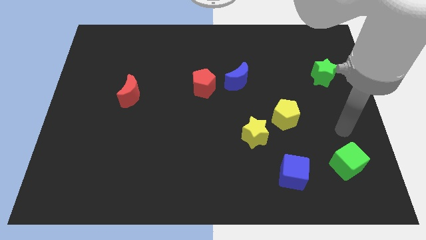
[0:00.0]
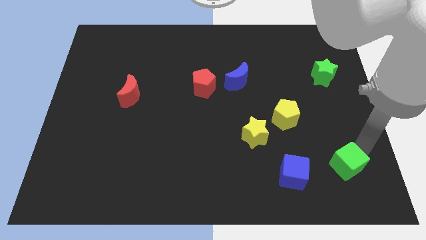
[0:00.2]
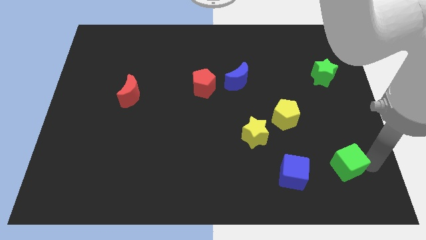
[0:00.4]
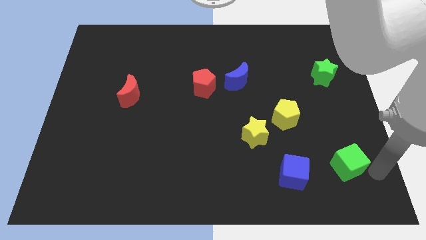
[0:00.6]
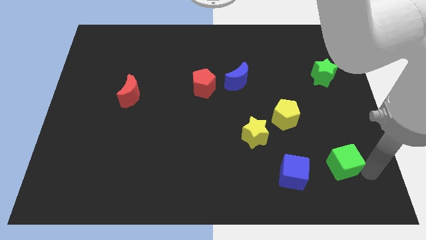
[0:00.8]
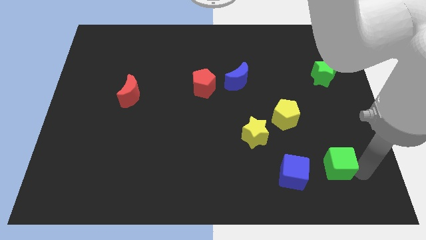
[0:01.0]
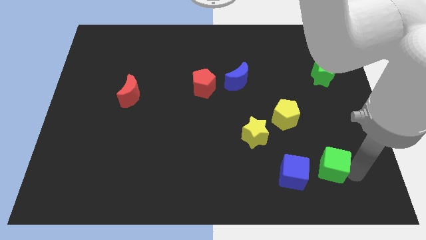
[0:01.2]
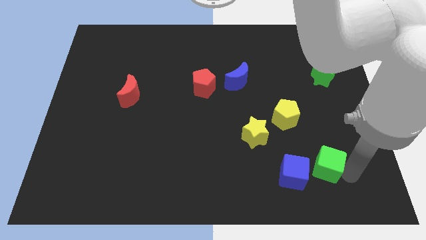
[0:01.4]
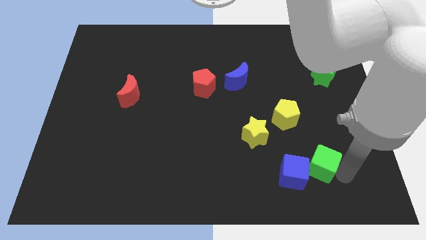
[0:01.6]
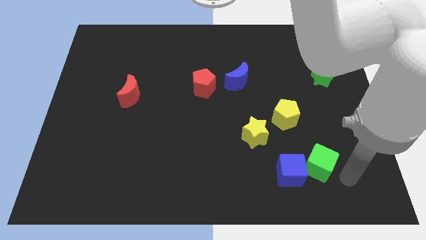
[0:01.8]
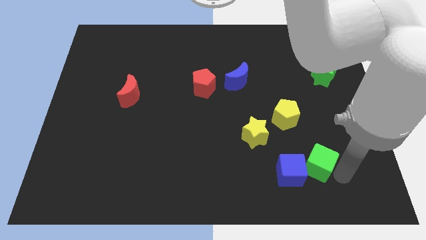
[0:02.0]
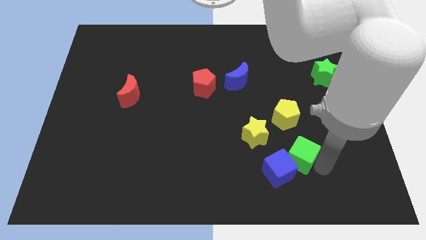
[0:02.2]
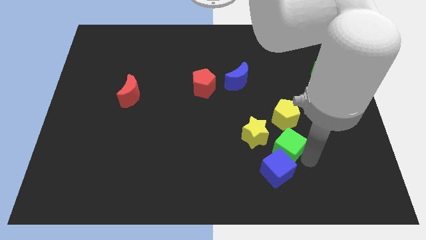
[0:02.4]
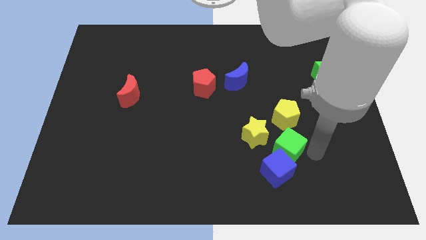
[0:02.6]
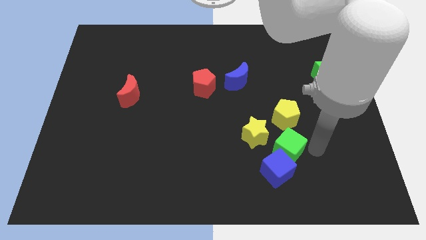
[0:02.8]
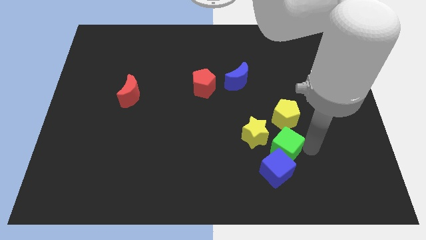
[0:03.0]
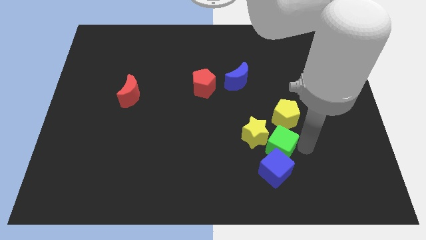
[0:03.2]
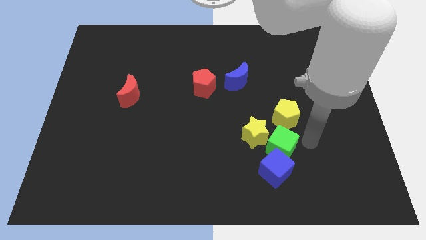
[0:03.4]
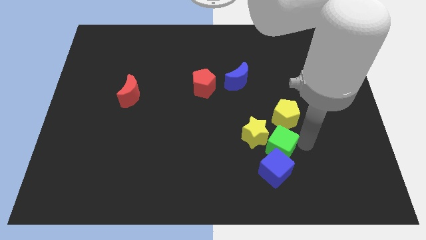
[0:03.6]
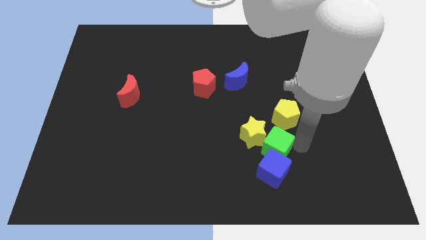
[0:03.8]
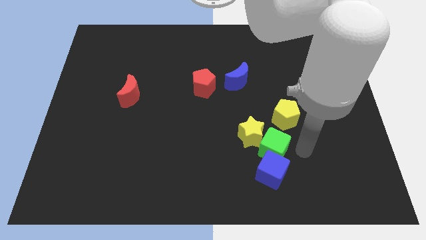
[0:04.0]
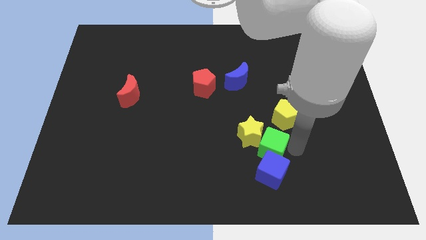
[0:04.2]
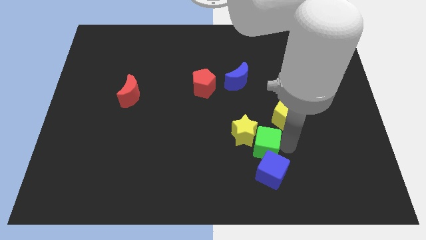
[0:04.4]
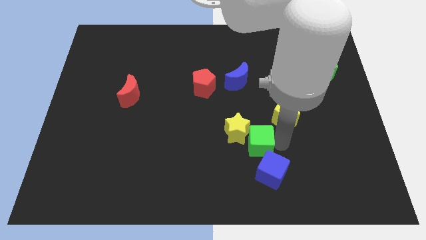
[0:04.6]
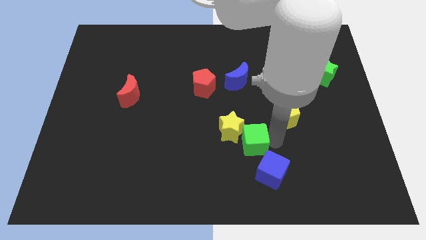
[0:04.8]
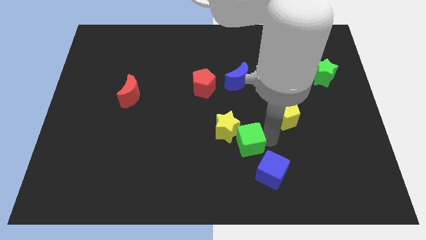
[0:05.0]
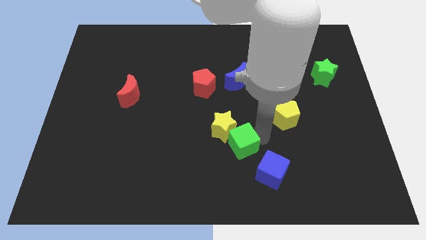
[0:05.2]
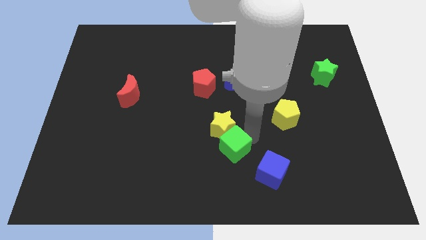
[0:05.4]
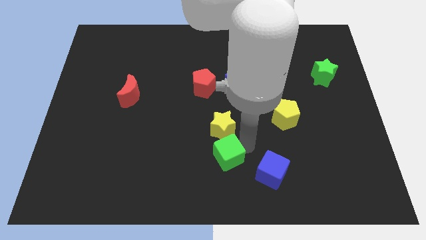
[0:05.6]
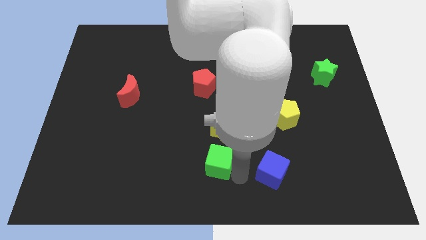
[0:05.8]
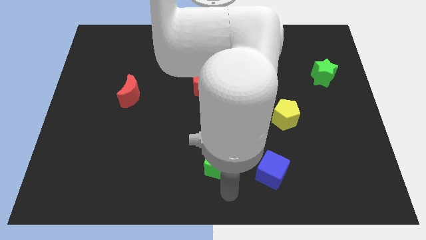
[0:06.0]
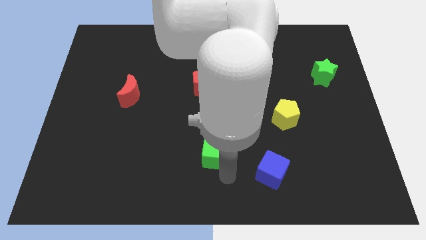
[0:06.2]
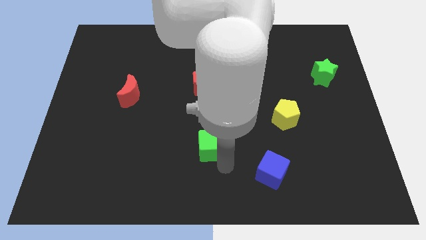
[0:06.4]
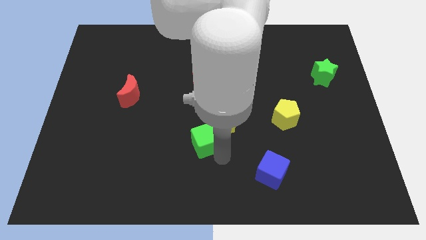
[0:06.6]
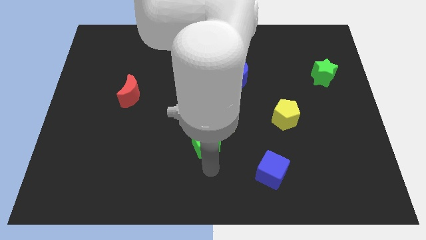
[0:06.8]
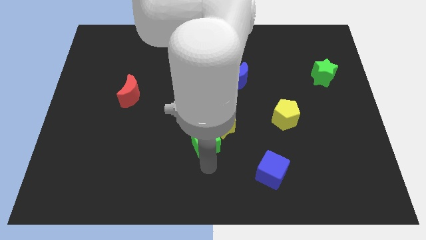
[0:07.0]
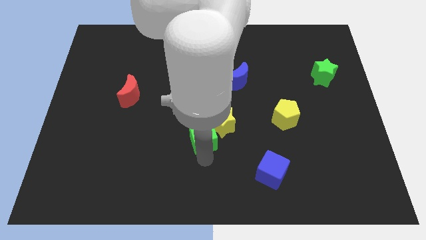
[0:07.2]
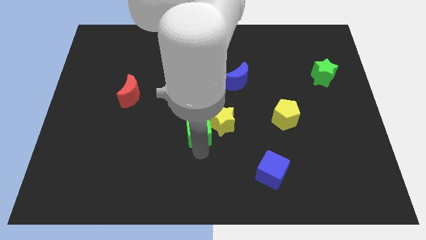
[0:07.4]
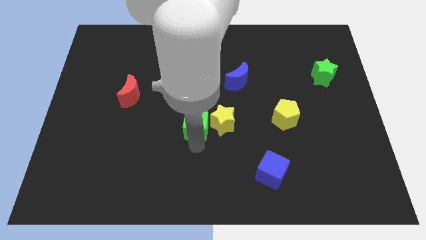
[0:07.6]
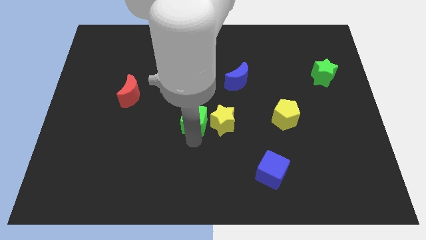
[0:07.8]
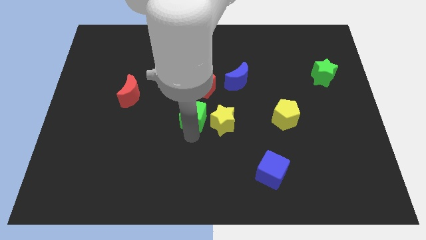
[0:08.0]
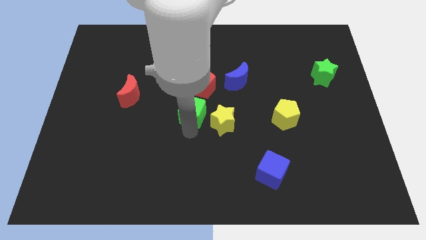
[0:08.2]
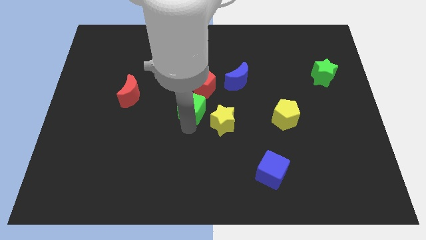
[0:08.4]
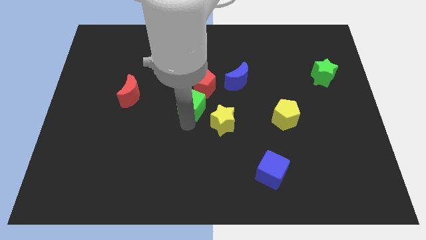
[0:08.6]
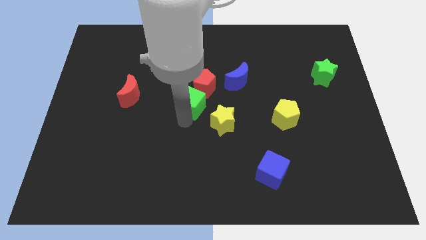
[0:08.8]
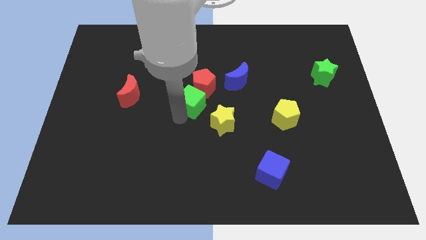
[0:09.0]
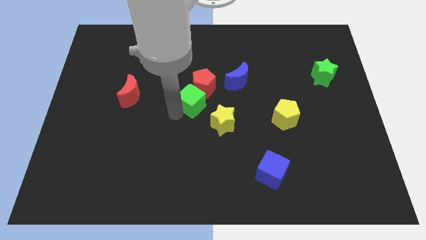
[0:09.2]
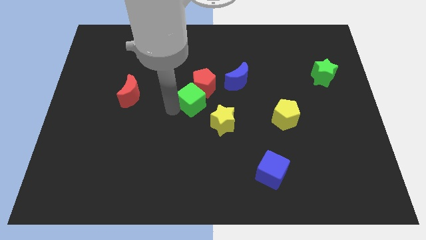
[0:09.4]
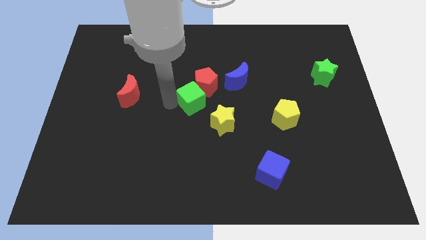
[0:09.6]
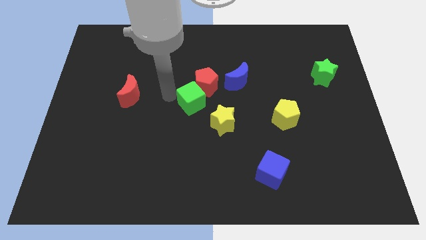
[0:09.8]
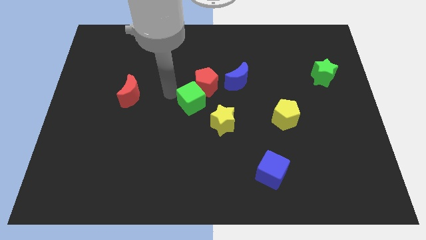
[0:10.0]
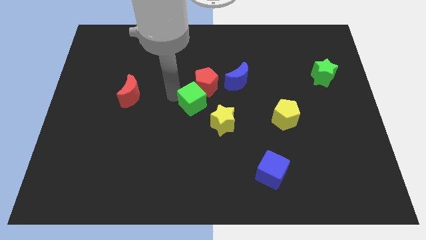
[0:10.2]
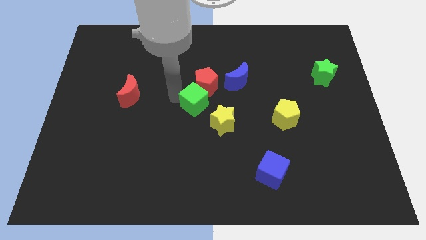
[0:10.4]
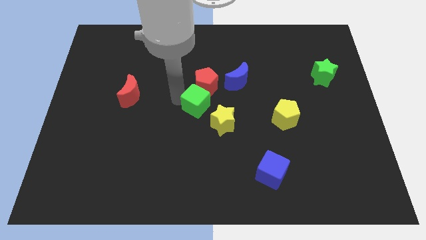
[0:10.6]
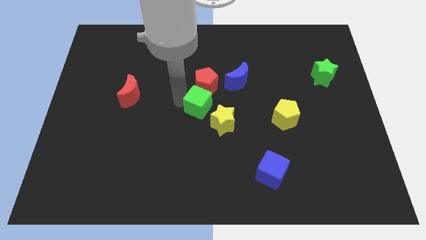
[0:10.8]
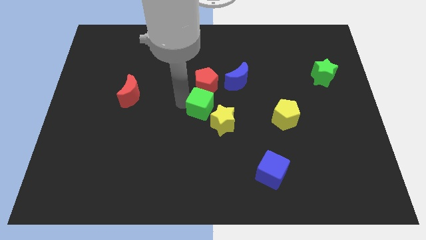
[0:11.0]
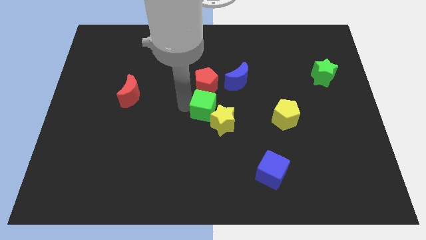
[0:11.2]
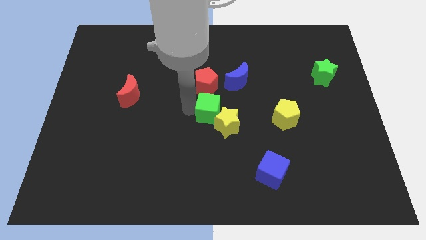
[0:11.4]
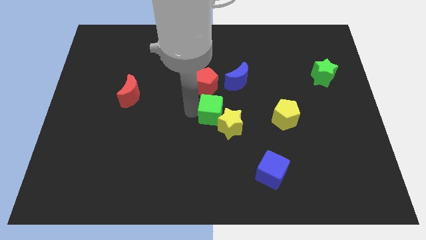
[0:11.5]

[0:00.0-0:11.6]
put the green cube diagonally up and to the left of the yellow star

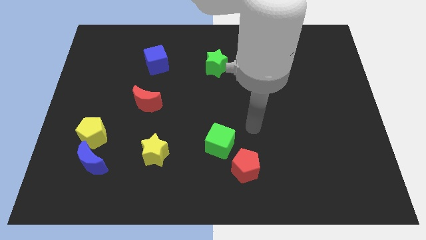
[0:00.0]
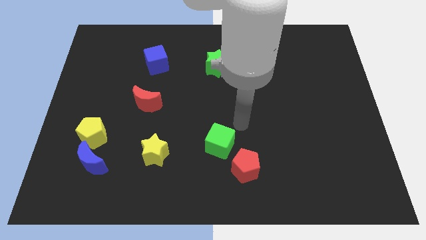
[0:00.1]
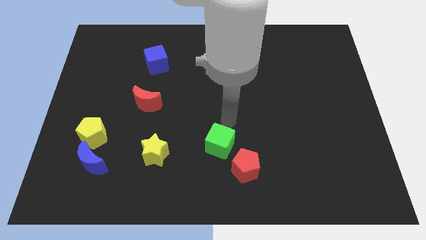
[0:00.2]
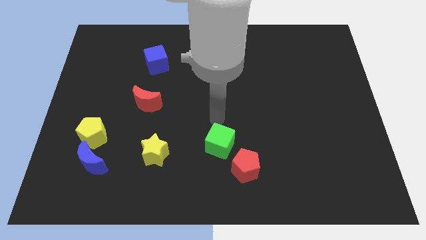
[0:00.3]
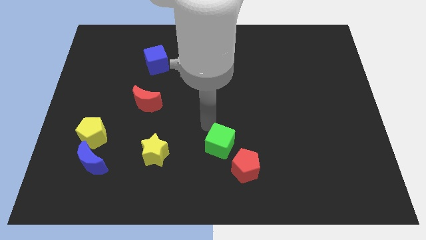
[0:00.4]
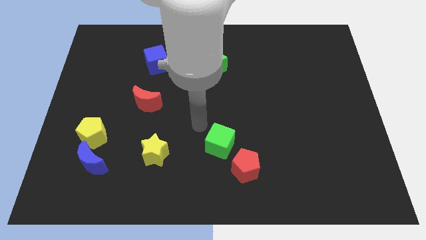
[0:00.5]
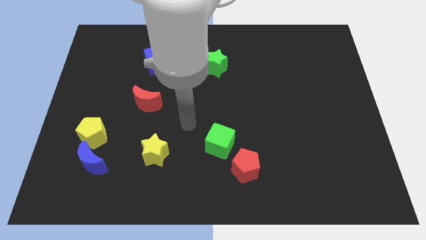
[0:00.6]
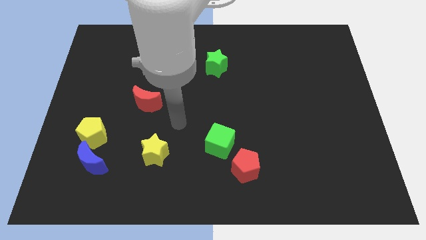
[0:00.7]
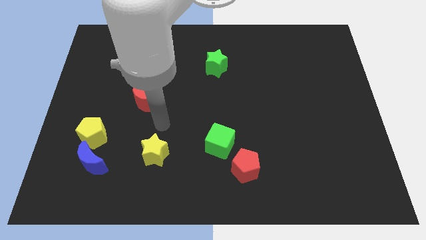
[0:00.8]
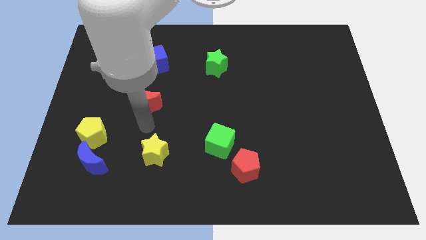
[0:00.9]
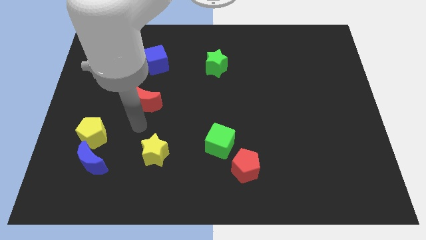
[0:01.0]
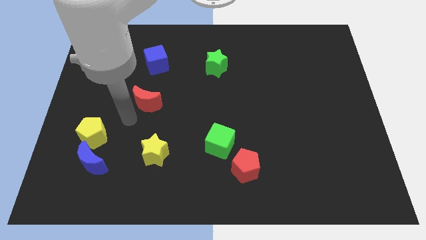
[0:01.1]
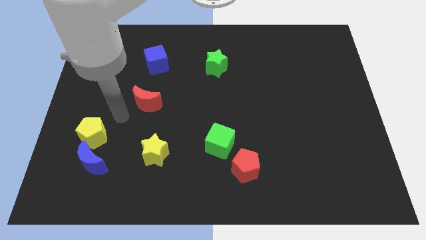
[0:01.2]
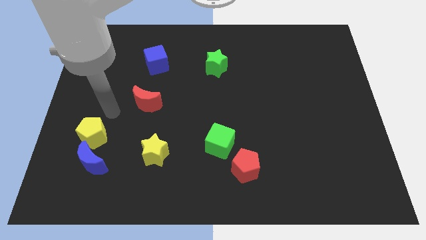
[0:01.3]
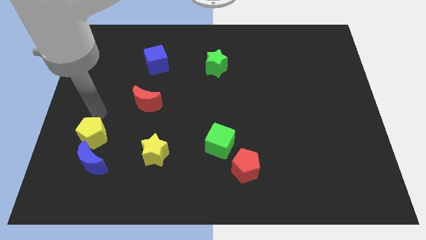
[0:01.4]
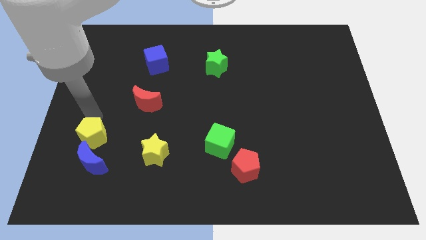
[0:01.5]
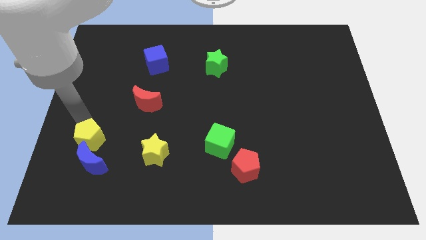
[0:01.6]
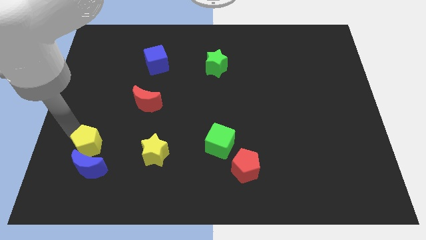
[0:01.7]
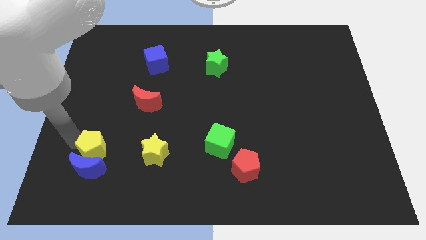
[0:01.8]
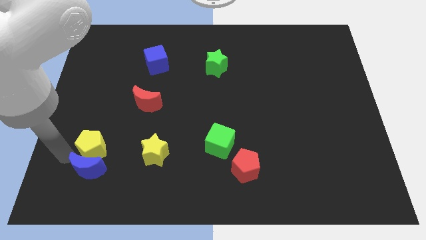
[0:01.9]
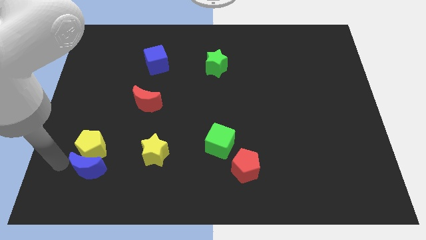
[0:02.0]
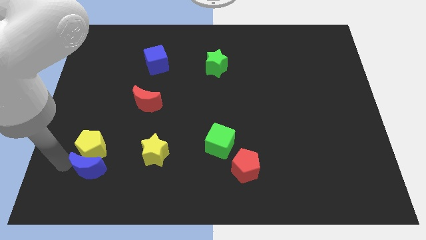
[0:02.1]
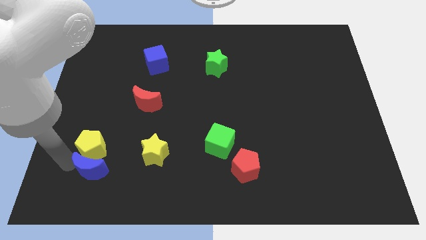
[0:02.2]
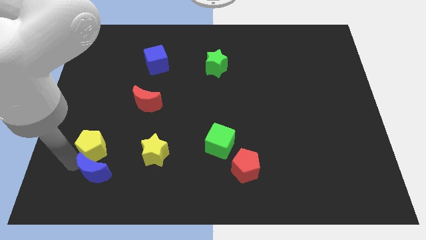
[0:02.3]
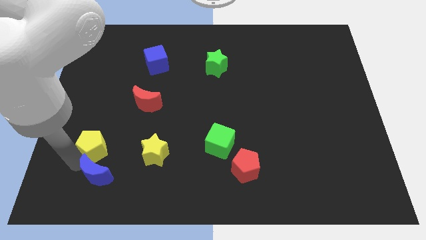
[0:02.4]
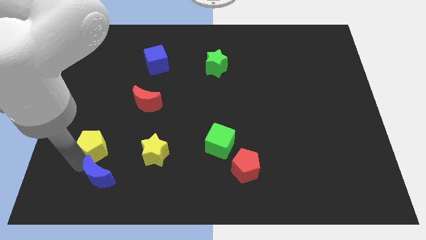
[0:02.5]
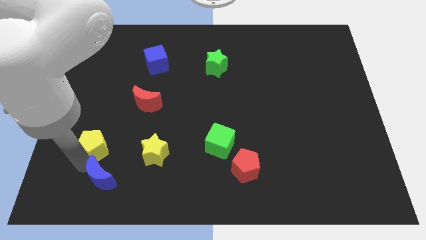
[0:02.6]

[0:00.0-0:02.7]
put the blue moon to the bottom left of the yellow star
